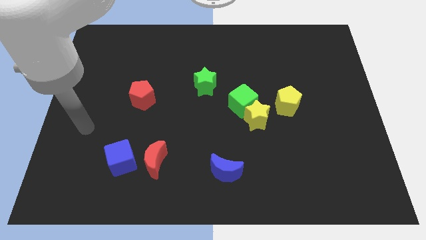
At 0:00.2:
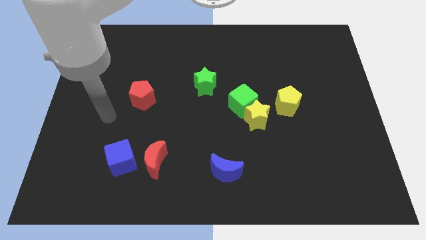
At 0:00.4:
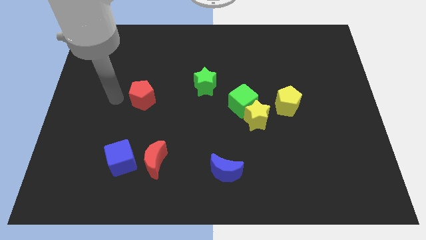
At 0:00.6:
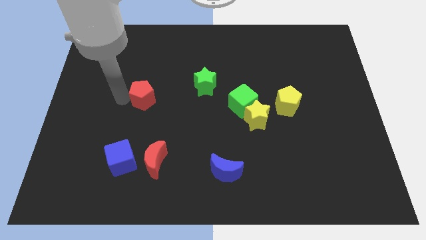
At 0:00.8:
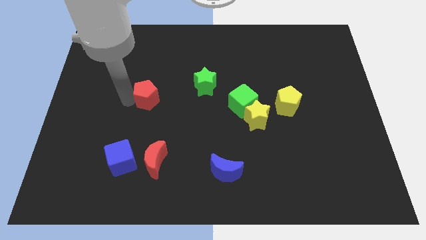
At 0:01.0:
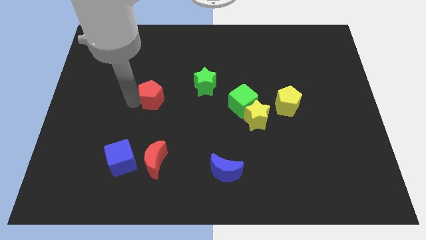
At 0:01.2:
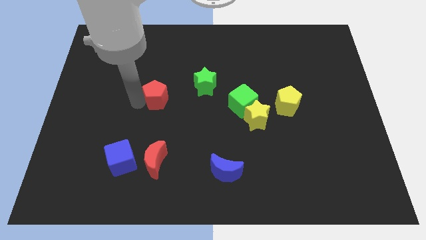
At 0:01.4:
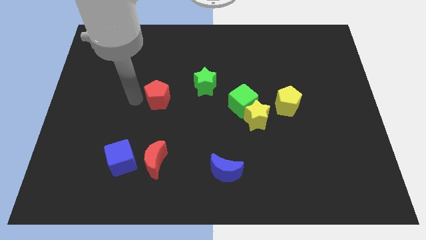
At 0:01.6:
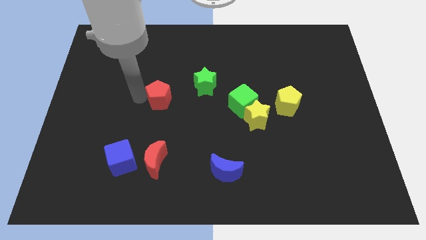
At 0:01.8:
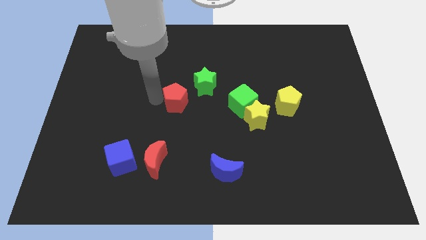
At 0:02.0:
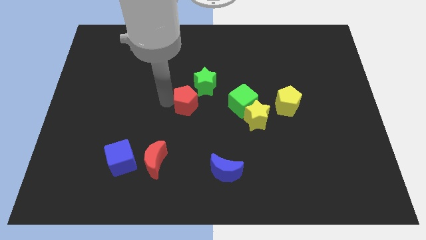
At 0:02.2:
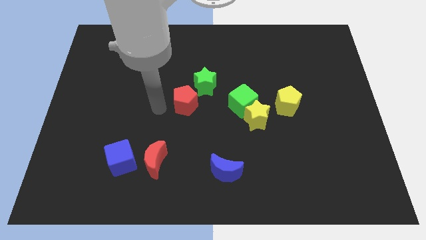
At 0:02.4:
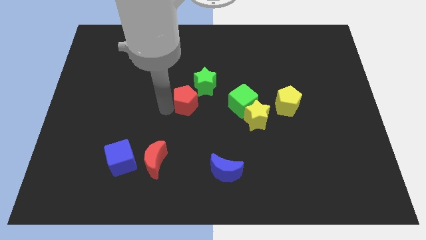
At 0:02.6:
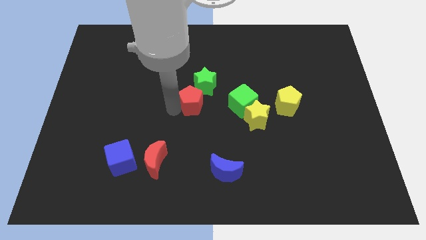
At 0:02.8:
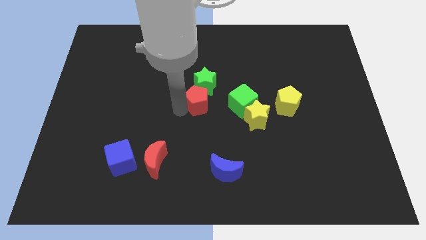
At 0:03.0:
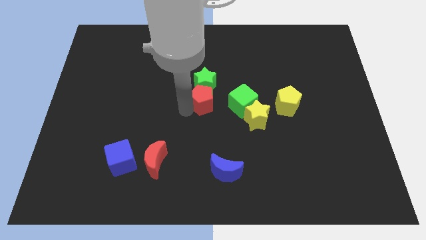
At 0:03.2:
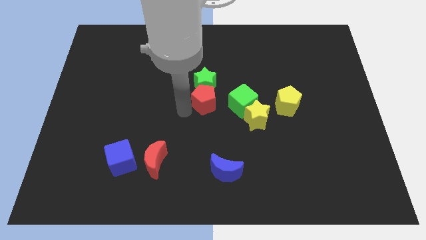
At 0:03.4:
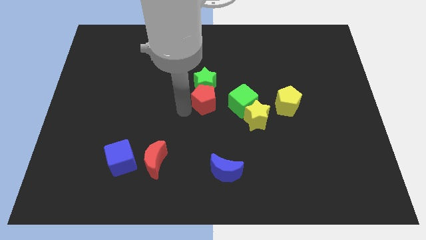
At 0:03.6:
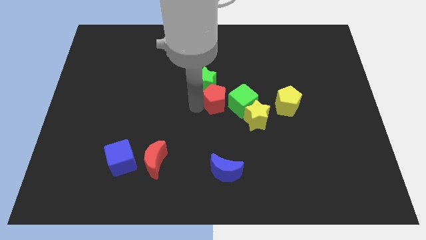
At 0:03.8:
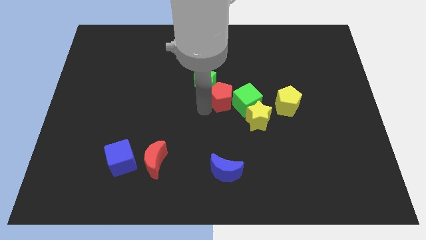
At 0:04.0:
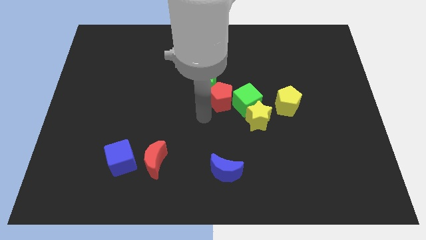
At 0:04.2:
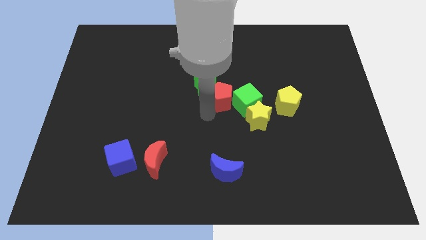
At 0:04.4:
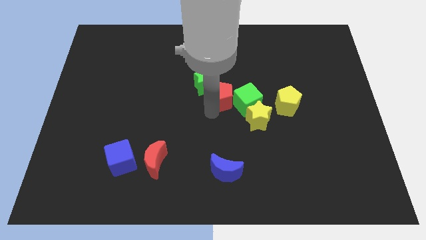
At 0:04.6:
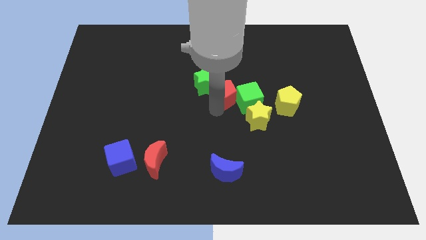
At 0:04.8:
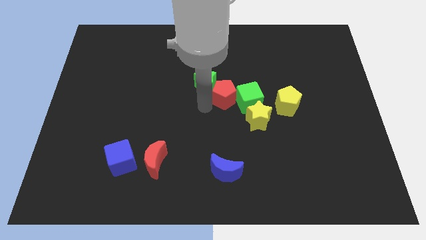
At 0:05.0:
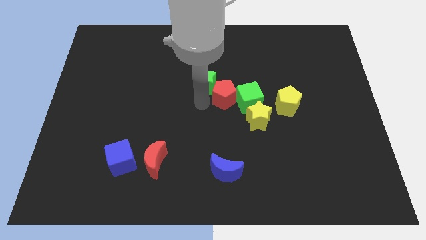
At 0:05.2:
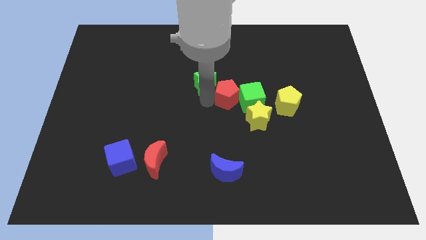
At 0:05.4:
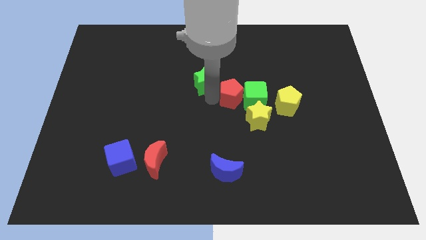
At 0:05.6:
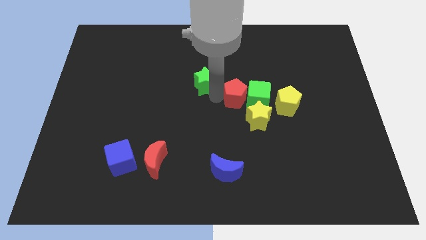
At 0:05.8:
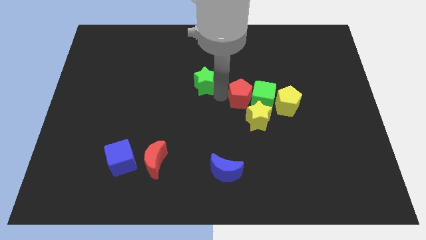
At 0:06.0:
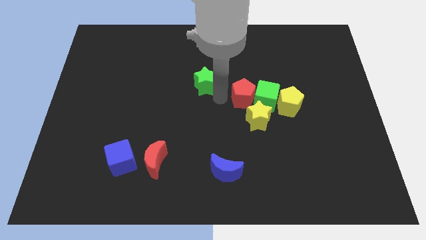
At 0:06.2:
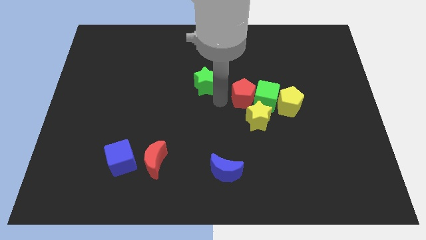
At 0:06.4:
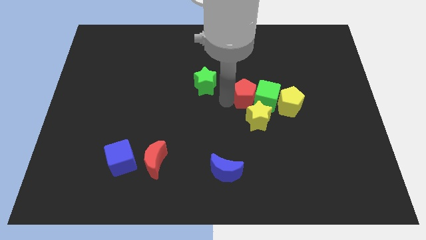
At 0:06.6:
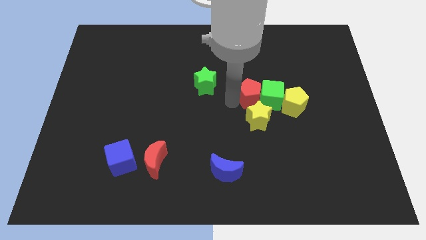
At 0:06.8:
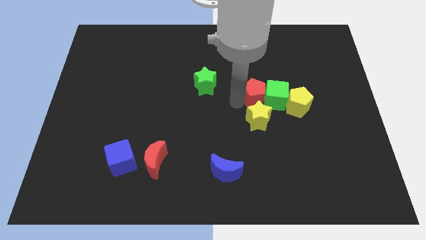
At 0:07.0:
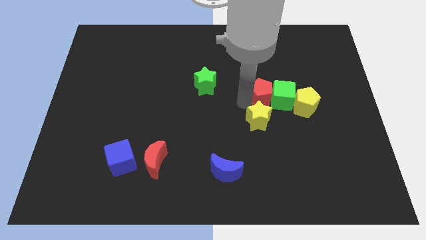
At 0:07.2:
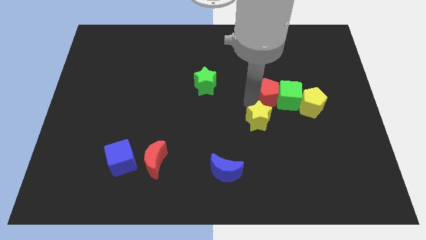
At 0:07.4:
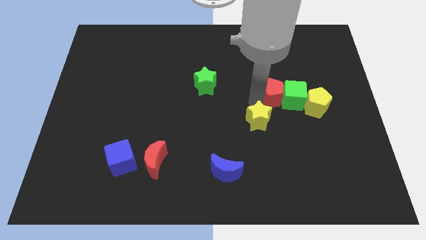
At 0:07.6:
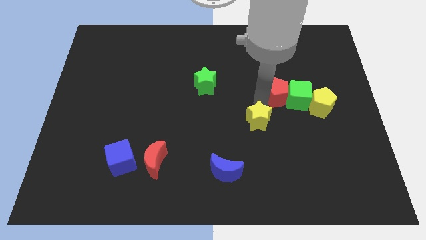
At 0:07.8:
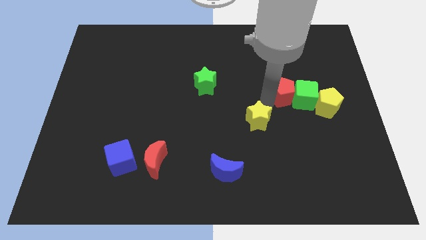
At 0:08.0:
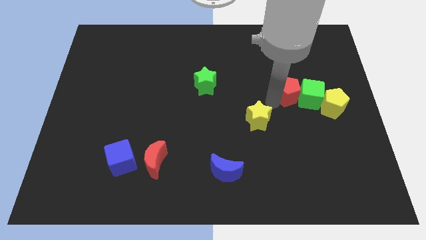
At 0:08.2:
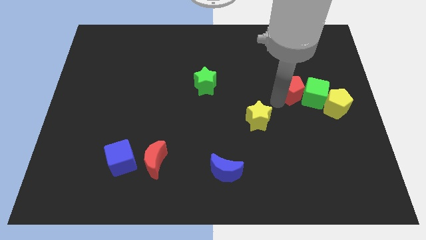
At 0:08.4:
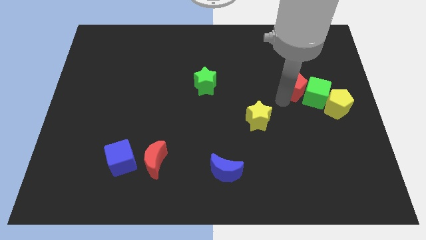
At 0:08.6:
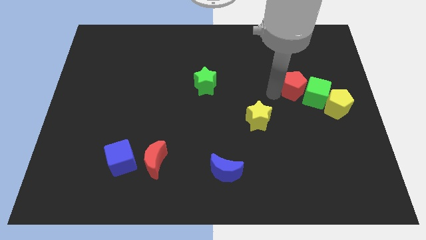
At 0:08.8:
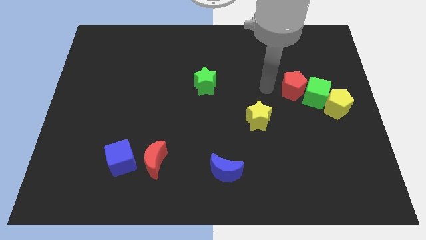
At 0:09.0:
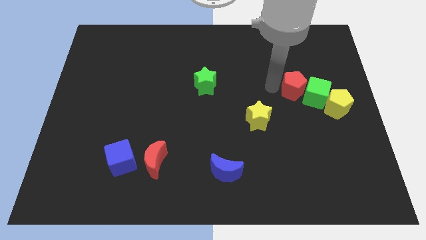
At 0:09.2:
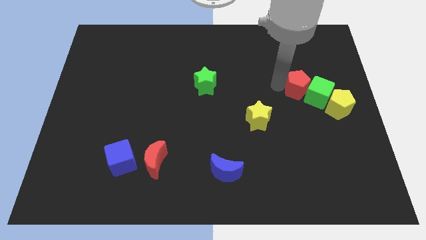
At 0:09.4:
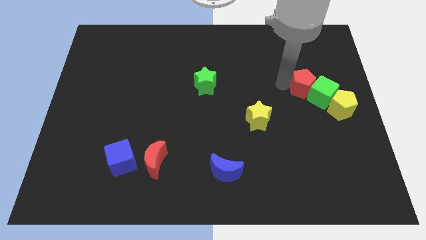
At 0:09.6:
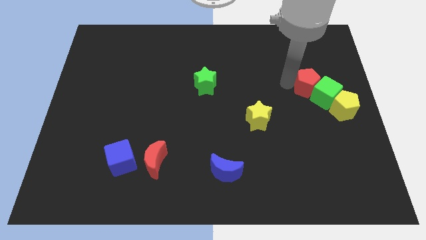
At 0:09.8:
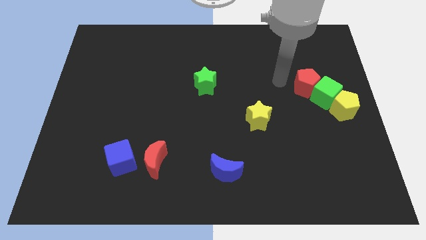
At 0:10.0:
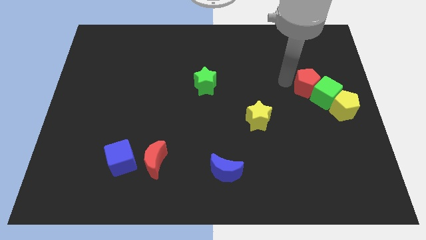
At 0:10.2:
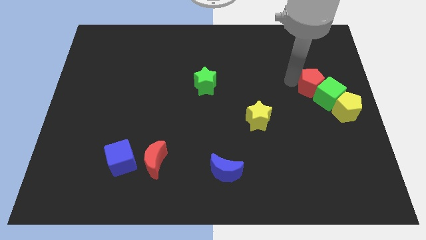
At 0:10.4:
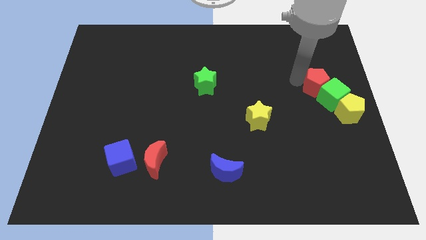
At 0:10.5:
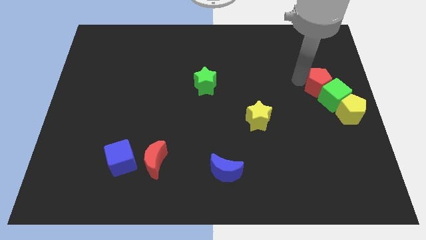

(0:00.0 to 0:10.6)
push the red pentagon to the right side

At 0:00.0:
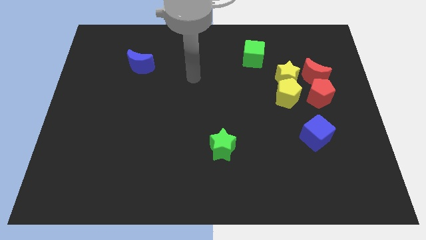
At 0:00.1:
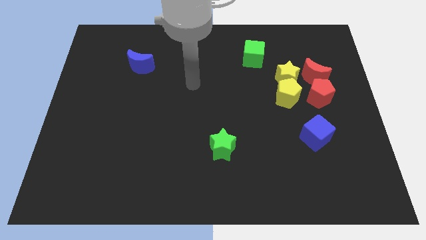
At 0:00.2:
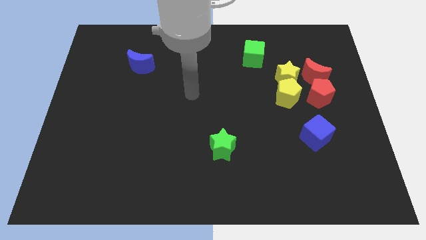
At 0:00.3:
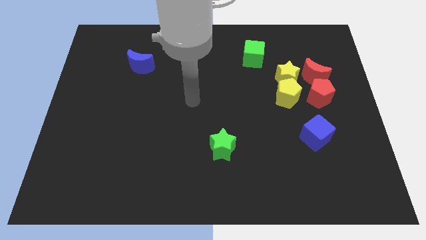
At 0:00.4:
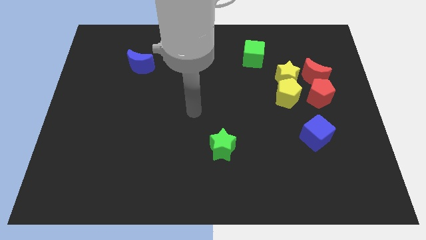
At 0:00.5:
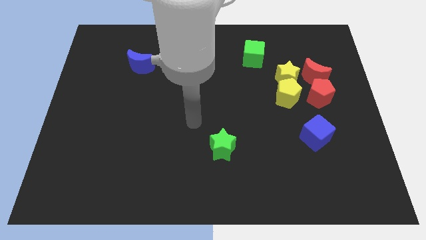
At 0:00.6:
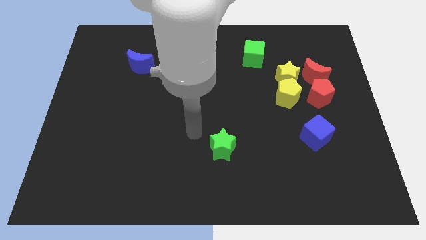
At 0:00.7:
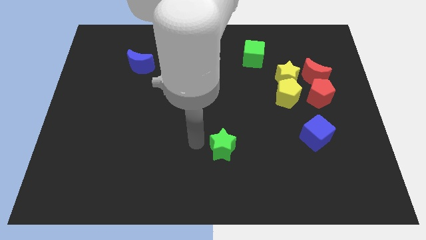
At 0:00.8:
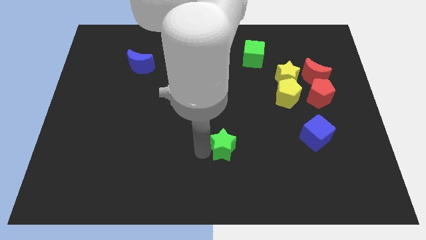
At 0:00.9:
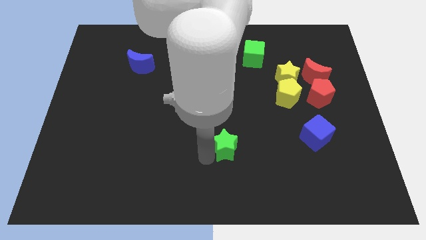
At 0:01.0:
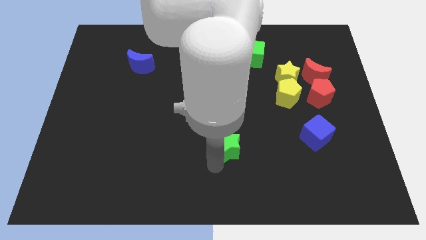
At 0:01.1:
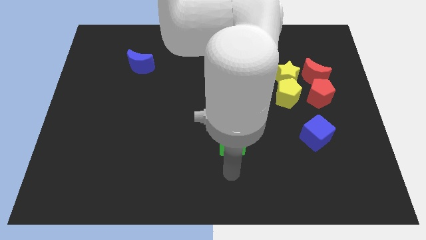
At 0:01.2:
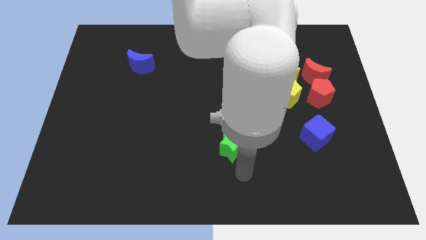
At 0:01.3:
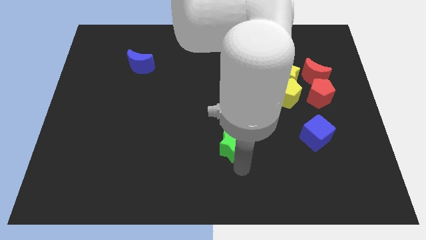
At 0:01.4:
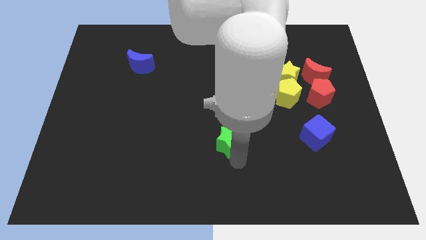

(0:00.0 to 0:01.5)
put the green star to the center of the board
